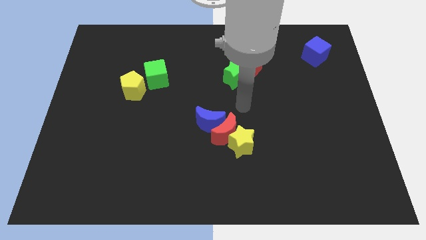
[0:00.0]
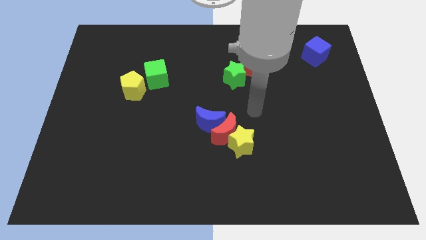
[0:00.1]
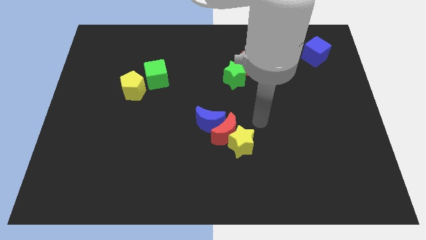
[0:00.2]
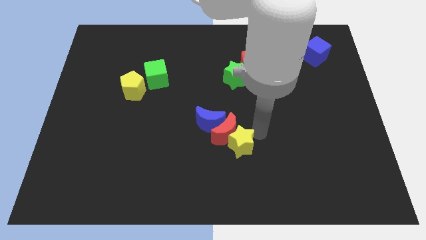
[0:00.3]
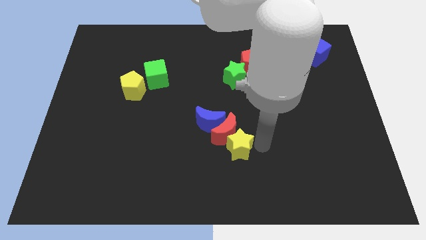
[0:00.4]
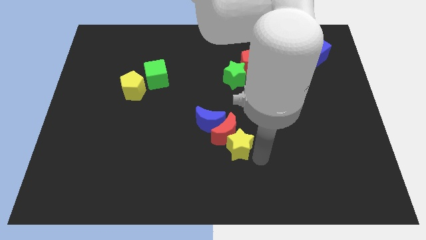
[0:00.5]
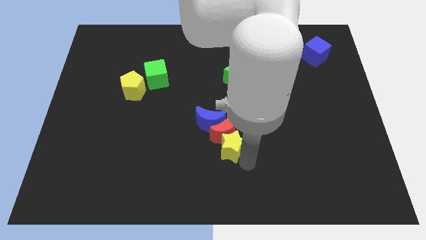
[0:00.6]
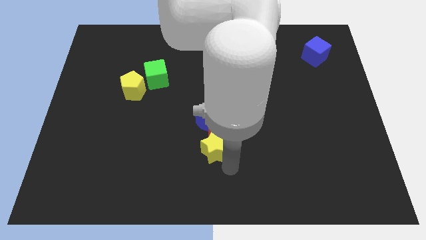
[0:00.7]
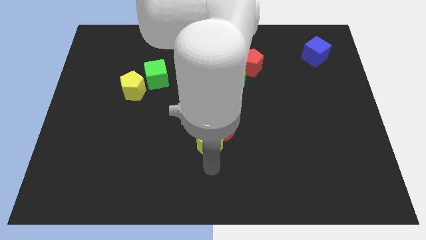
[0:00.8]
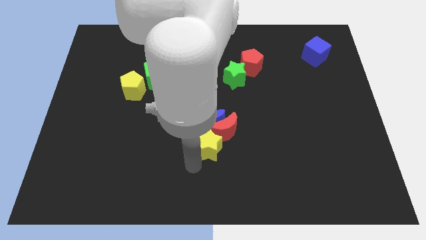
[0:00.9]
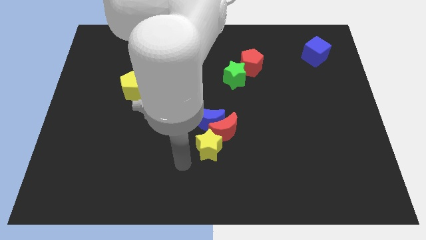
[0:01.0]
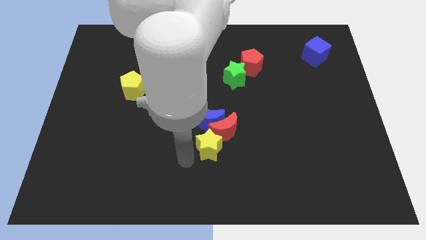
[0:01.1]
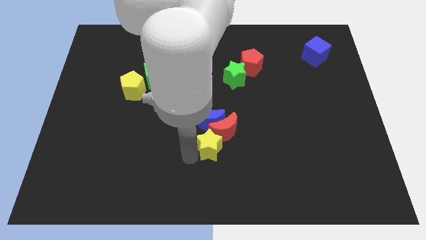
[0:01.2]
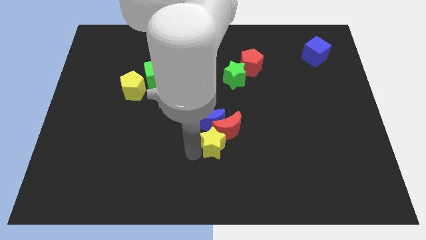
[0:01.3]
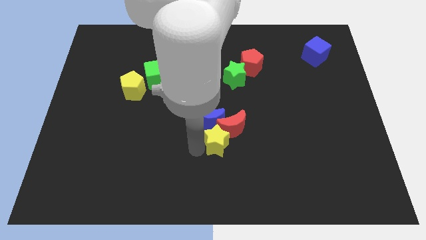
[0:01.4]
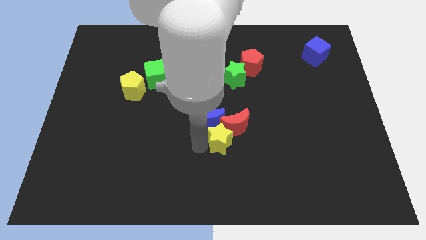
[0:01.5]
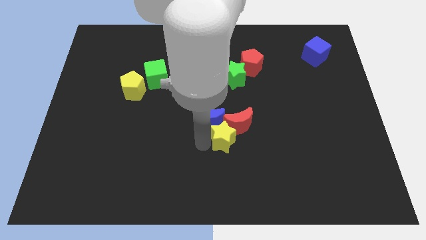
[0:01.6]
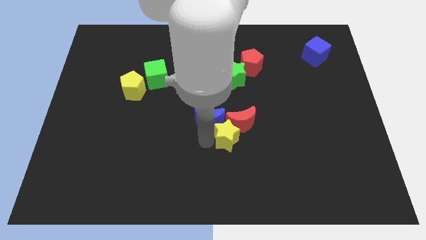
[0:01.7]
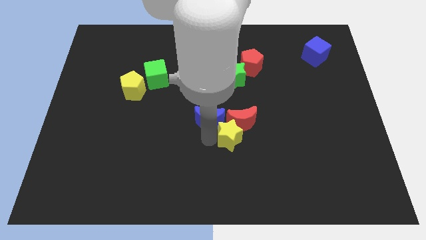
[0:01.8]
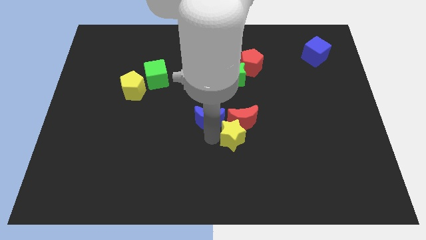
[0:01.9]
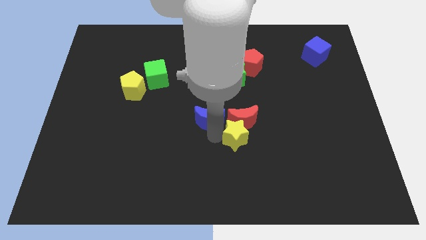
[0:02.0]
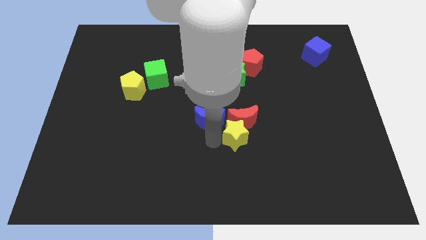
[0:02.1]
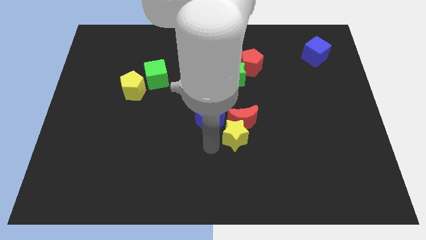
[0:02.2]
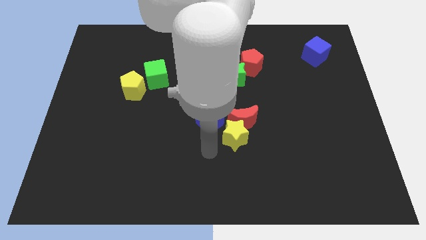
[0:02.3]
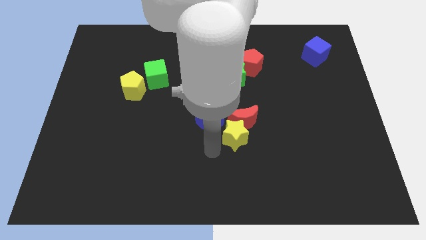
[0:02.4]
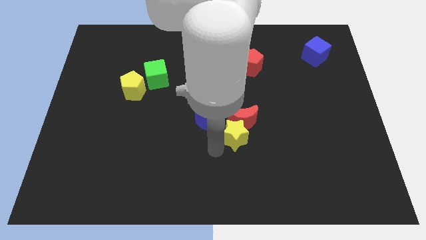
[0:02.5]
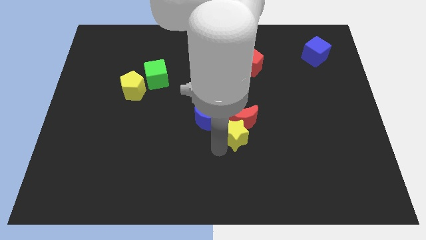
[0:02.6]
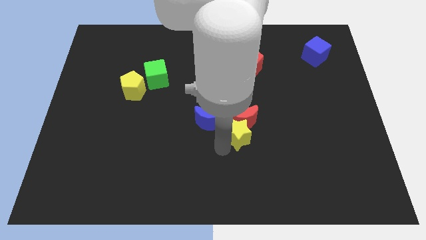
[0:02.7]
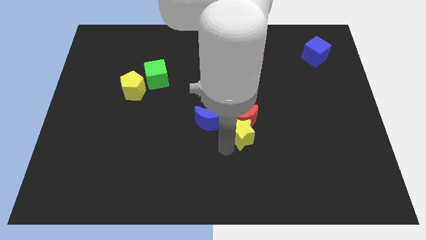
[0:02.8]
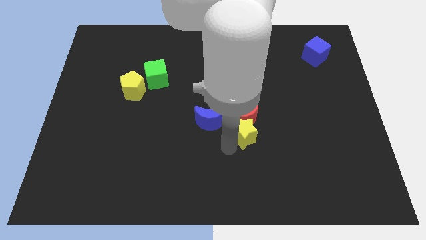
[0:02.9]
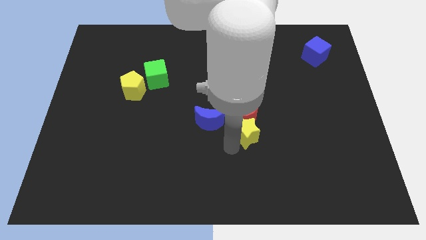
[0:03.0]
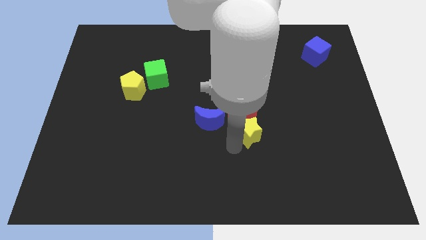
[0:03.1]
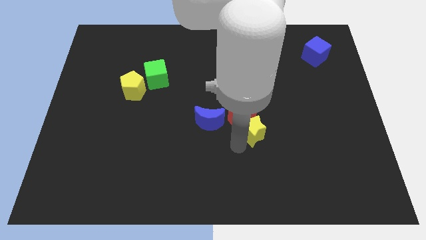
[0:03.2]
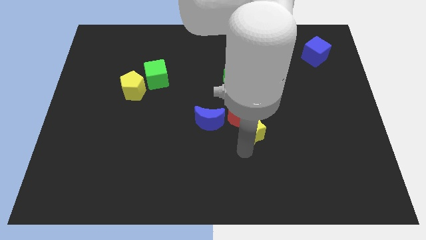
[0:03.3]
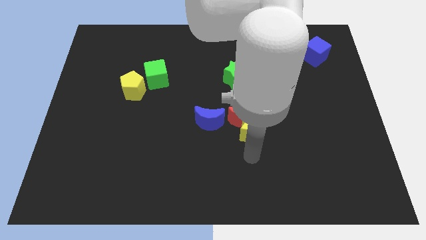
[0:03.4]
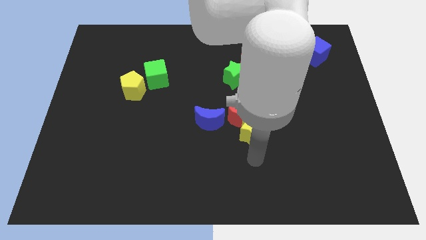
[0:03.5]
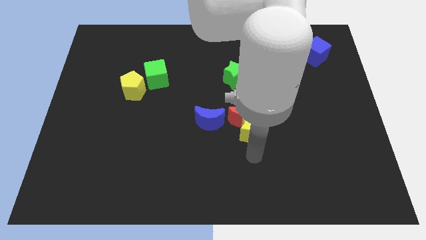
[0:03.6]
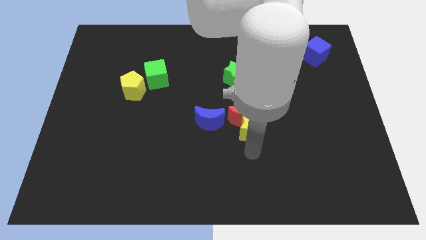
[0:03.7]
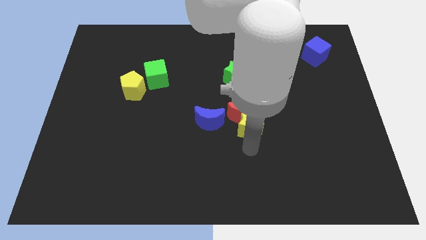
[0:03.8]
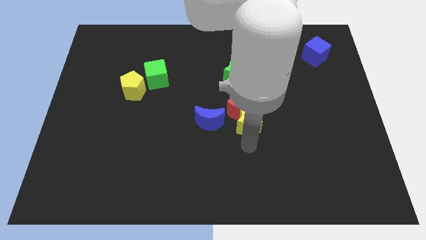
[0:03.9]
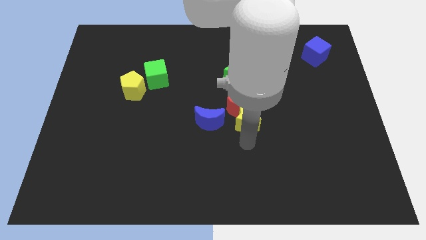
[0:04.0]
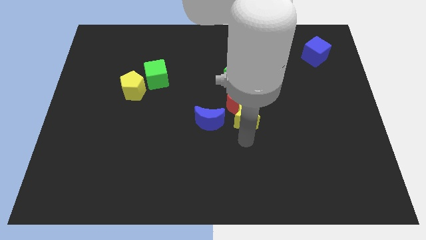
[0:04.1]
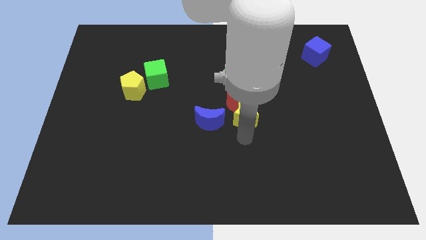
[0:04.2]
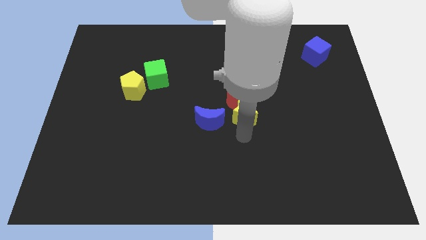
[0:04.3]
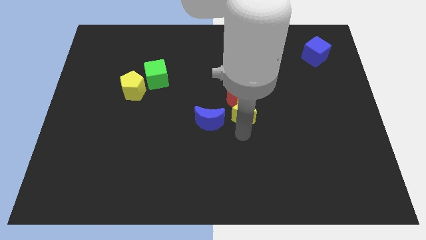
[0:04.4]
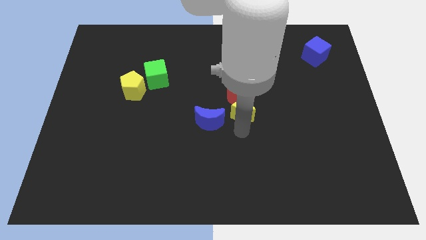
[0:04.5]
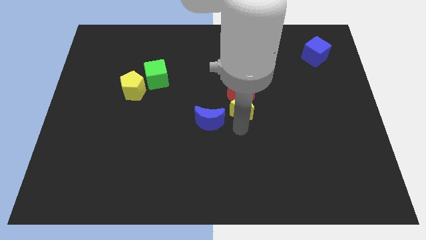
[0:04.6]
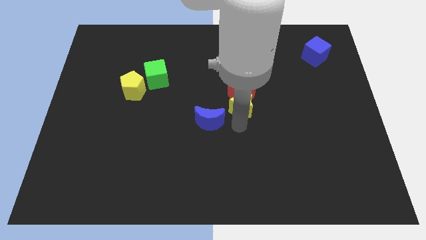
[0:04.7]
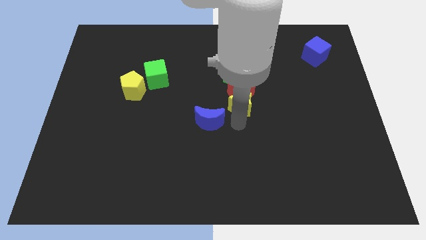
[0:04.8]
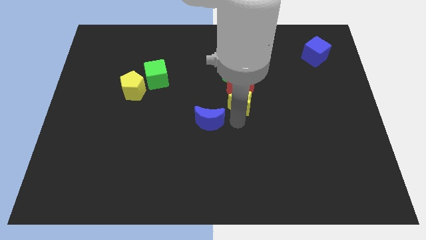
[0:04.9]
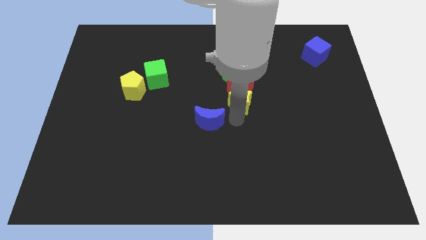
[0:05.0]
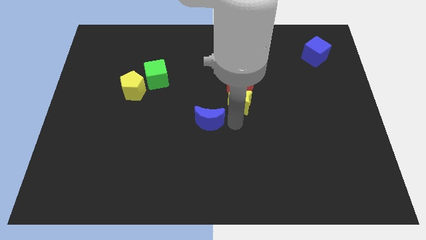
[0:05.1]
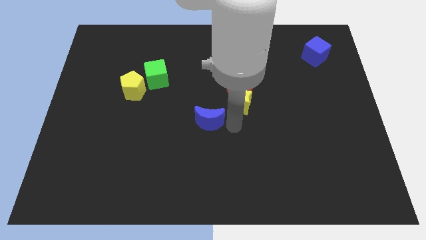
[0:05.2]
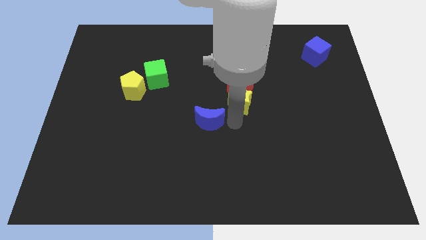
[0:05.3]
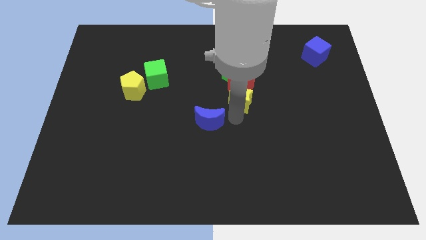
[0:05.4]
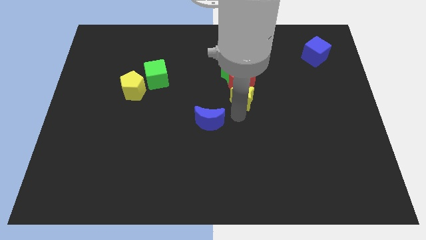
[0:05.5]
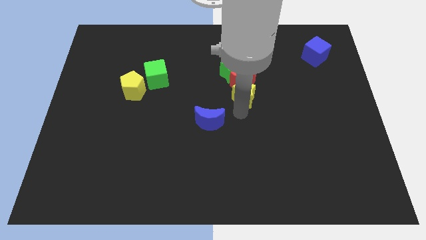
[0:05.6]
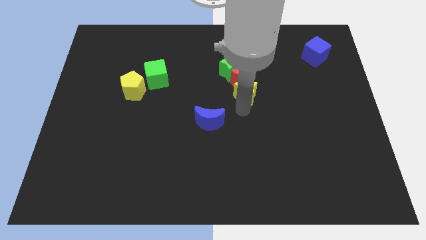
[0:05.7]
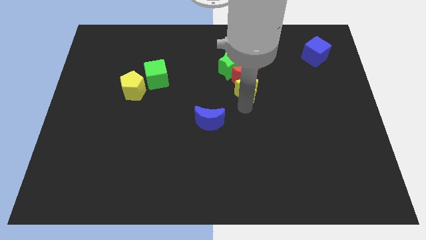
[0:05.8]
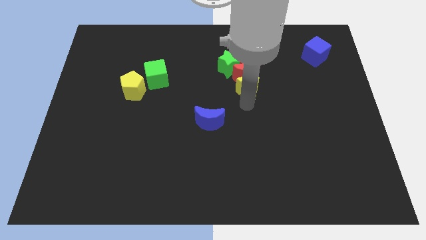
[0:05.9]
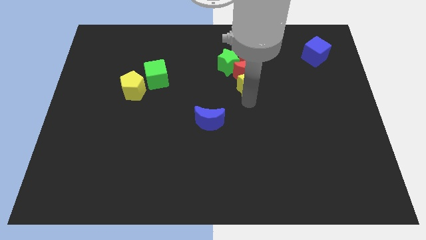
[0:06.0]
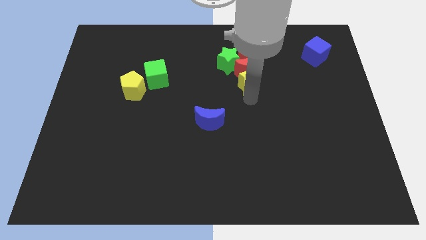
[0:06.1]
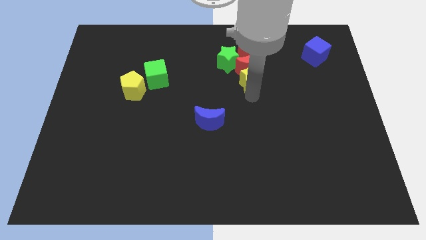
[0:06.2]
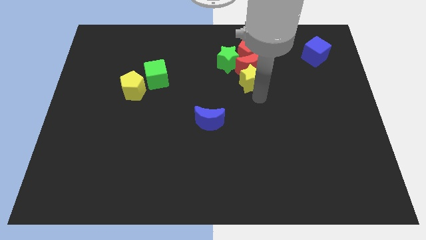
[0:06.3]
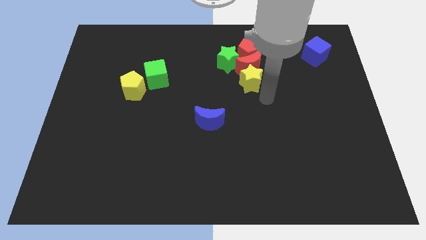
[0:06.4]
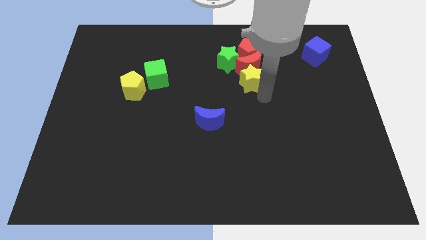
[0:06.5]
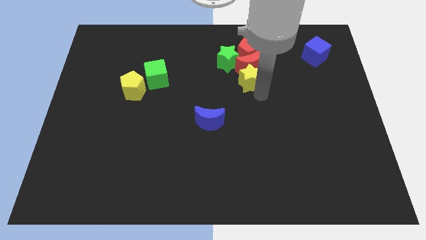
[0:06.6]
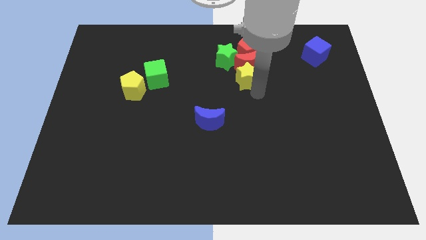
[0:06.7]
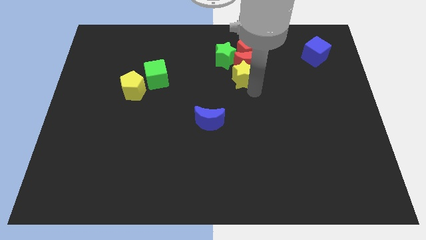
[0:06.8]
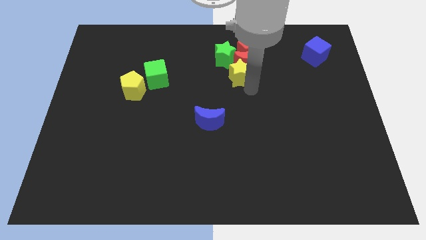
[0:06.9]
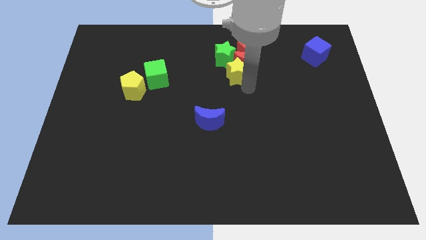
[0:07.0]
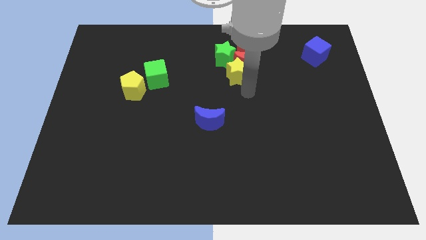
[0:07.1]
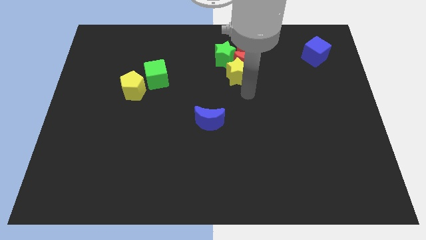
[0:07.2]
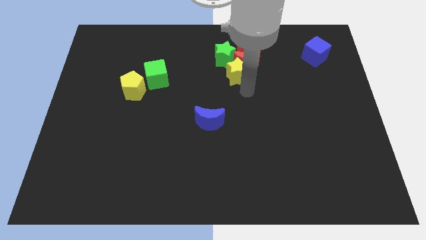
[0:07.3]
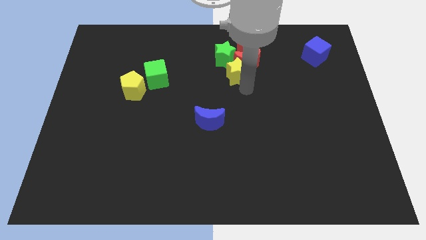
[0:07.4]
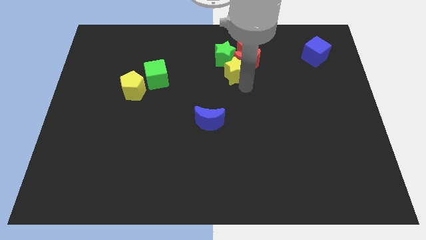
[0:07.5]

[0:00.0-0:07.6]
put the yellow star towards the green star
